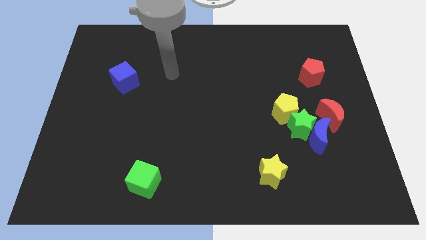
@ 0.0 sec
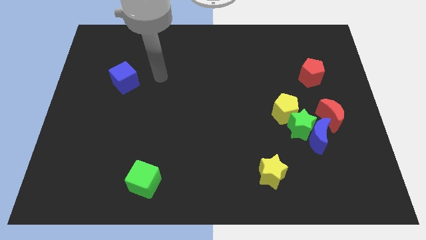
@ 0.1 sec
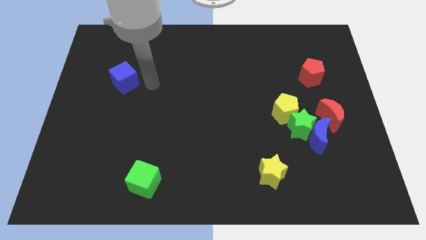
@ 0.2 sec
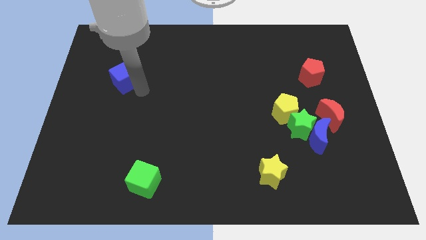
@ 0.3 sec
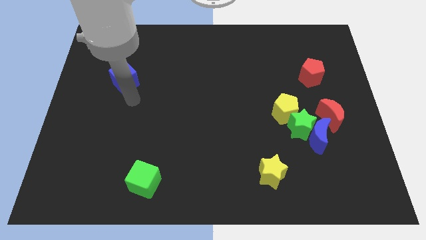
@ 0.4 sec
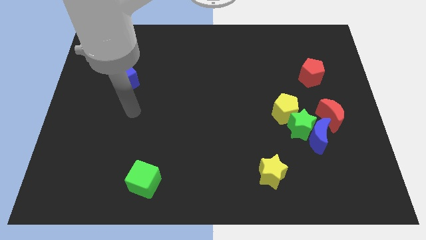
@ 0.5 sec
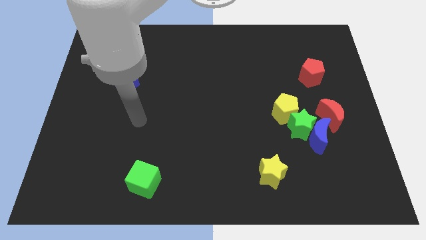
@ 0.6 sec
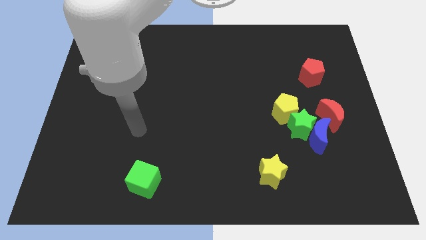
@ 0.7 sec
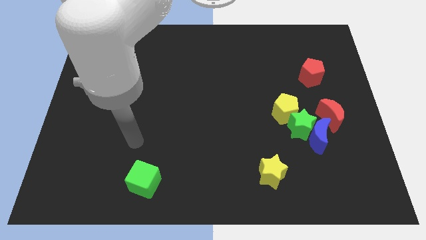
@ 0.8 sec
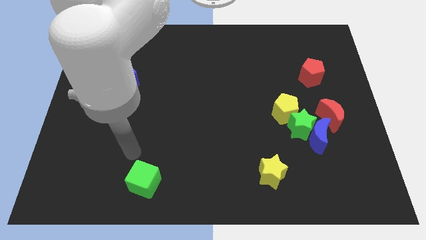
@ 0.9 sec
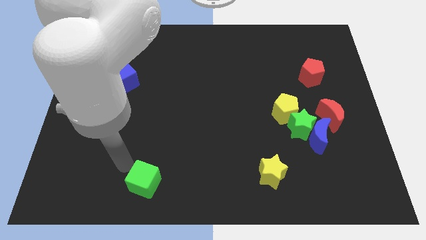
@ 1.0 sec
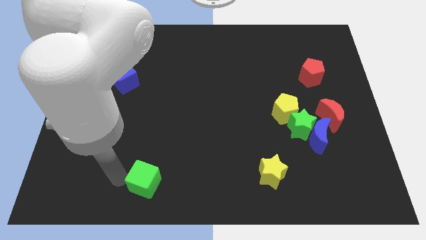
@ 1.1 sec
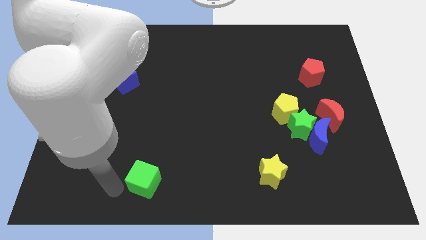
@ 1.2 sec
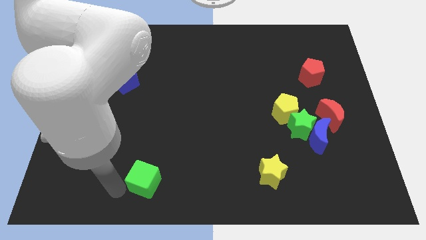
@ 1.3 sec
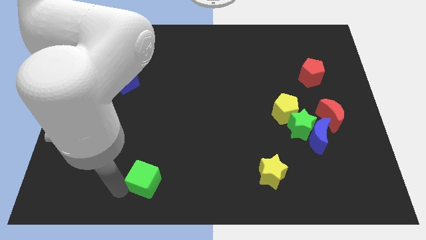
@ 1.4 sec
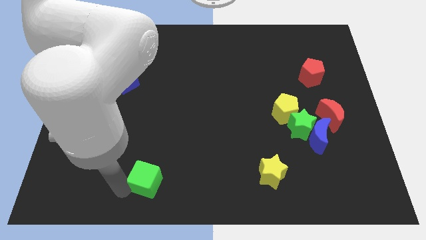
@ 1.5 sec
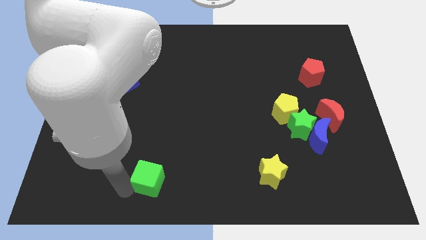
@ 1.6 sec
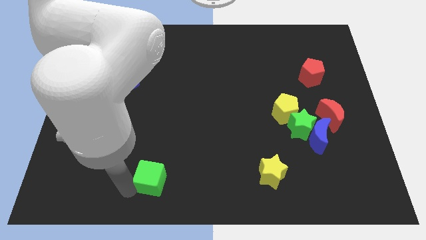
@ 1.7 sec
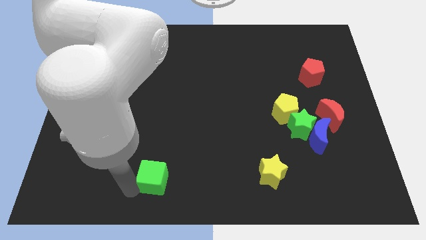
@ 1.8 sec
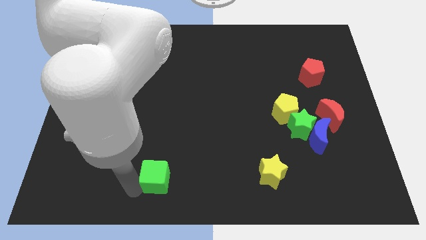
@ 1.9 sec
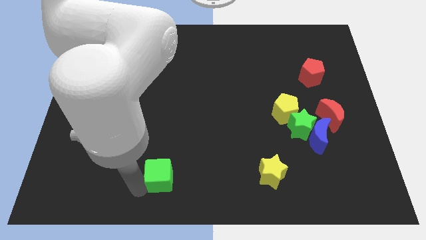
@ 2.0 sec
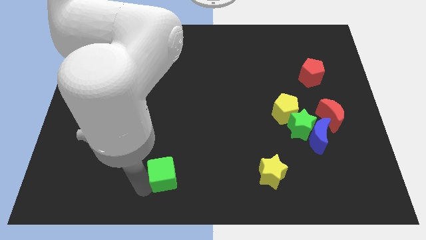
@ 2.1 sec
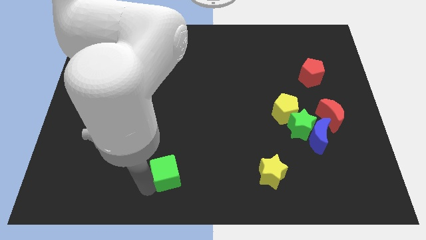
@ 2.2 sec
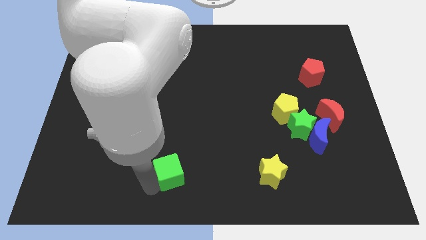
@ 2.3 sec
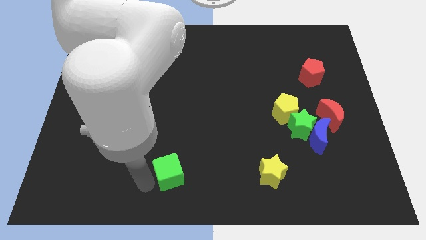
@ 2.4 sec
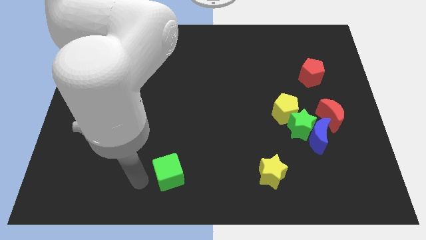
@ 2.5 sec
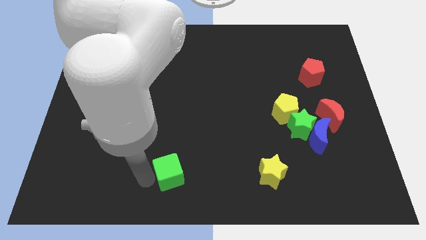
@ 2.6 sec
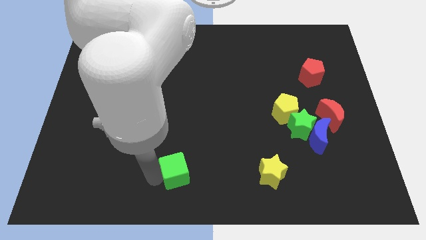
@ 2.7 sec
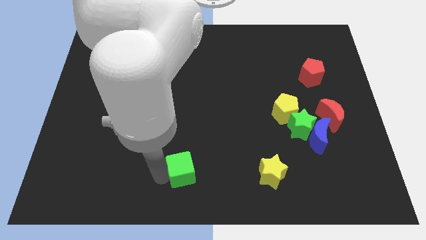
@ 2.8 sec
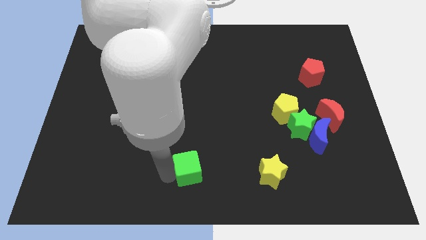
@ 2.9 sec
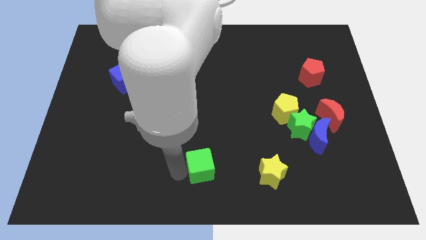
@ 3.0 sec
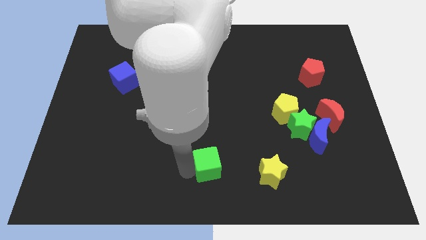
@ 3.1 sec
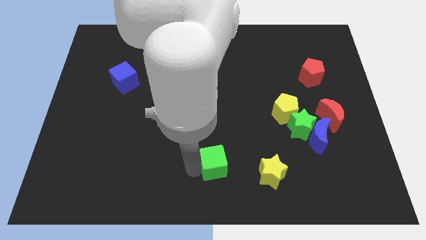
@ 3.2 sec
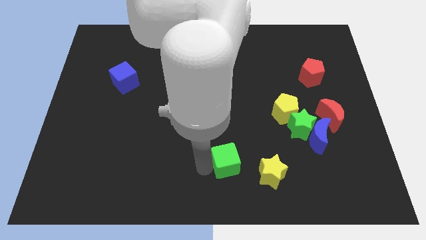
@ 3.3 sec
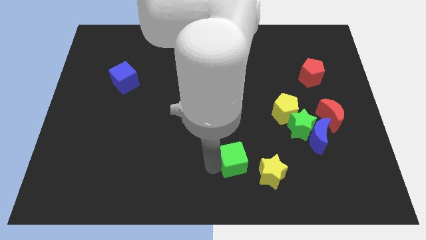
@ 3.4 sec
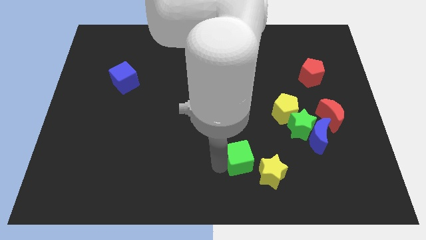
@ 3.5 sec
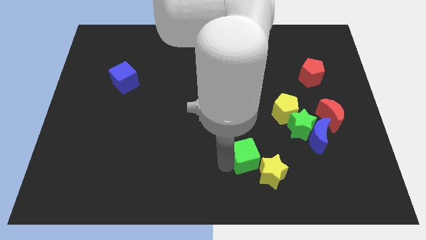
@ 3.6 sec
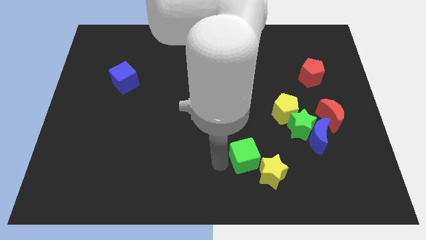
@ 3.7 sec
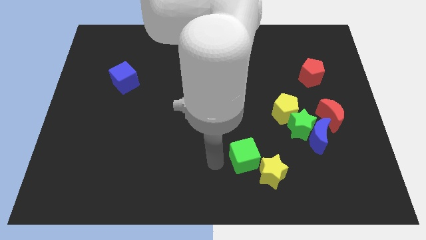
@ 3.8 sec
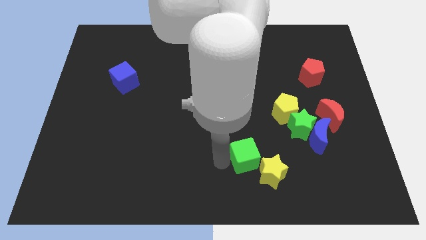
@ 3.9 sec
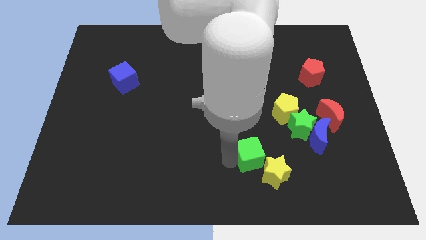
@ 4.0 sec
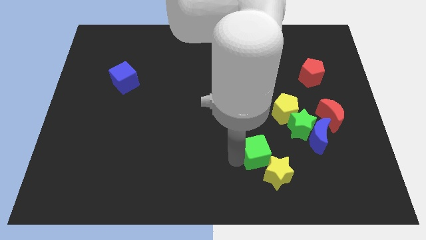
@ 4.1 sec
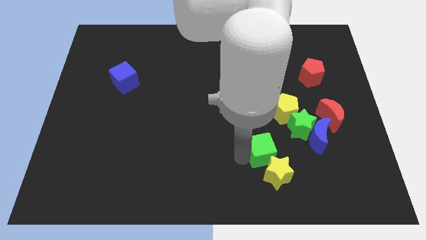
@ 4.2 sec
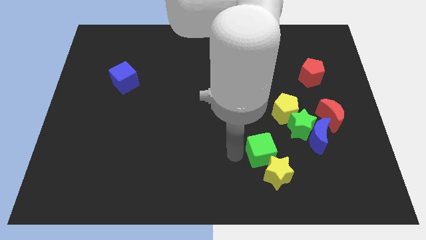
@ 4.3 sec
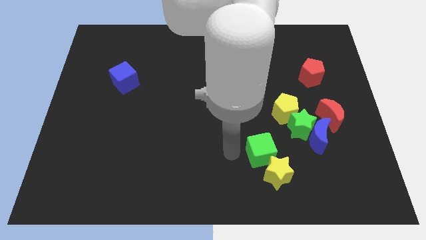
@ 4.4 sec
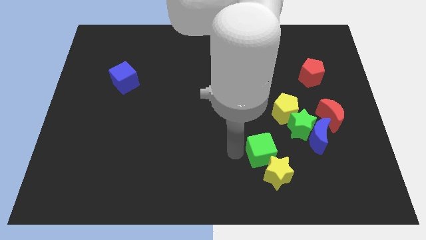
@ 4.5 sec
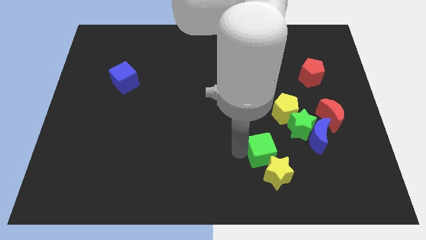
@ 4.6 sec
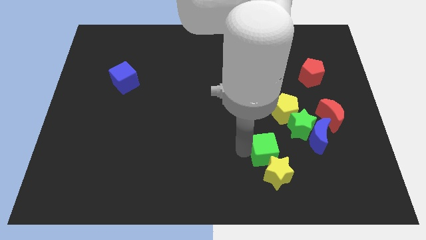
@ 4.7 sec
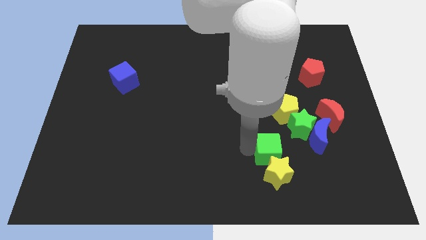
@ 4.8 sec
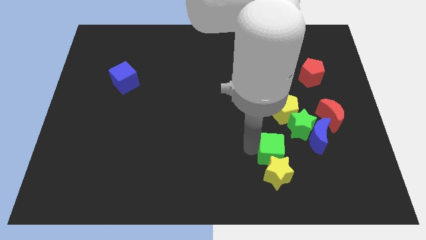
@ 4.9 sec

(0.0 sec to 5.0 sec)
push the green cube to the top right side of the yellow star
